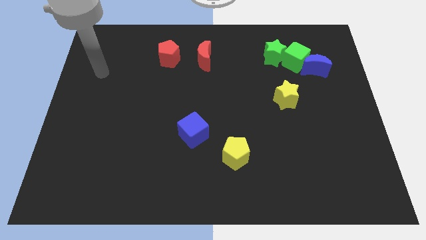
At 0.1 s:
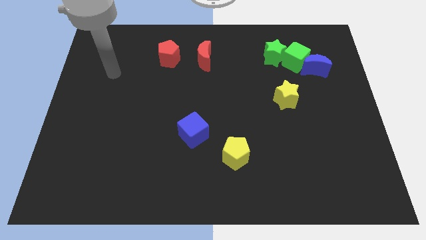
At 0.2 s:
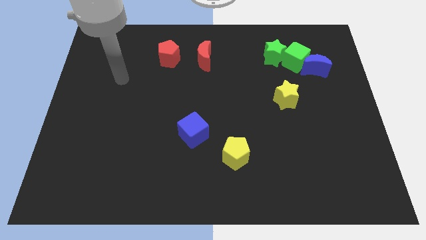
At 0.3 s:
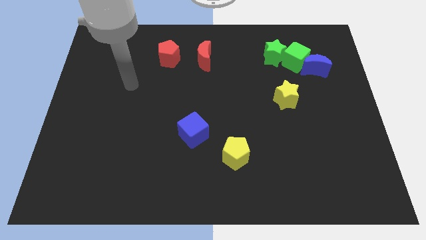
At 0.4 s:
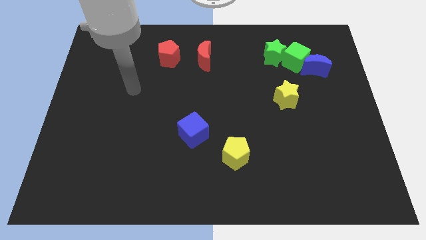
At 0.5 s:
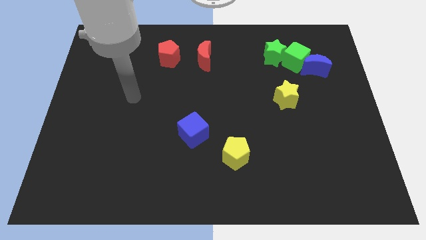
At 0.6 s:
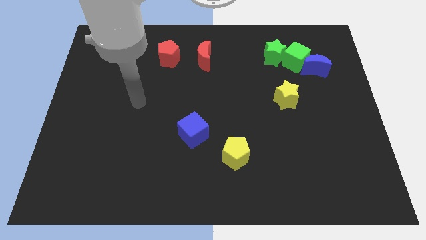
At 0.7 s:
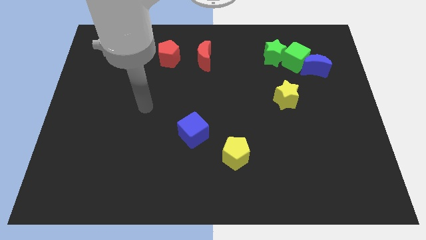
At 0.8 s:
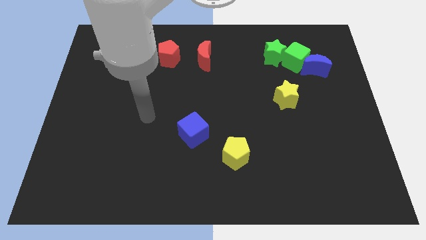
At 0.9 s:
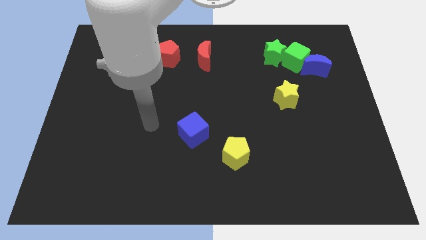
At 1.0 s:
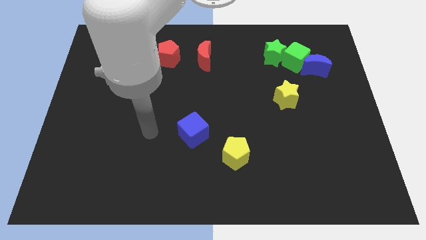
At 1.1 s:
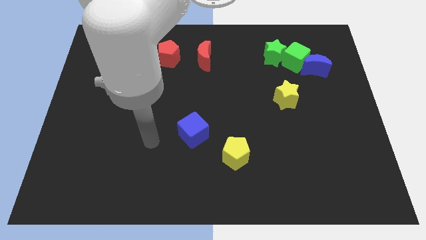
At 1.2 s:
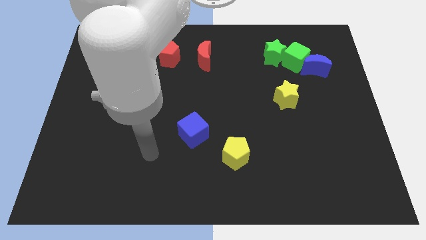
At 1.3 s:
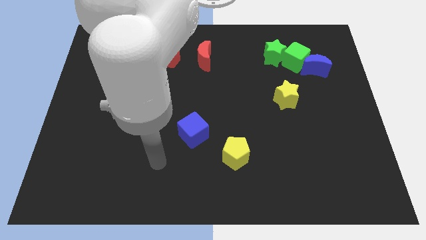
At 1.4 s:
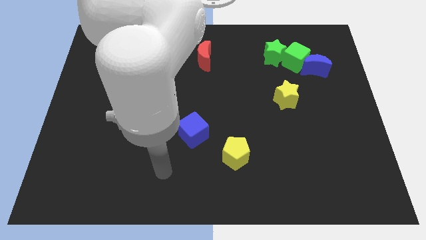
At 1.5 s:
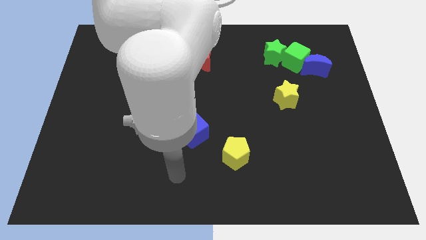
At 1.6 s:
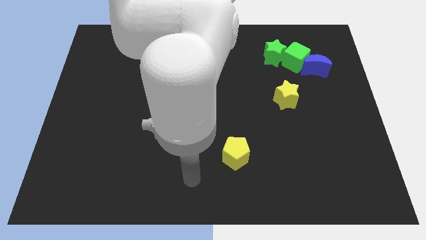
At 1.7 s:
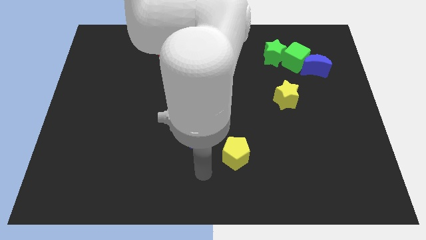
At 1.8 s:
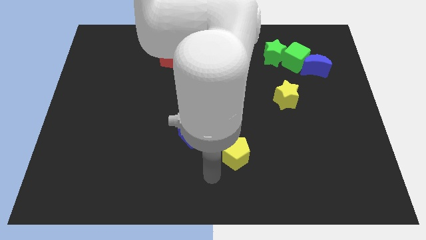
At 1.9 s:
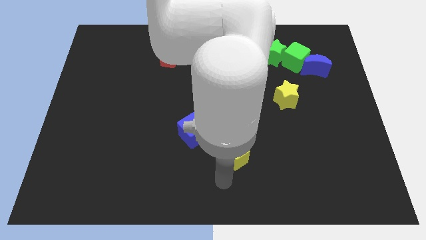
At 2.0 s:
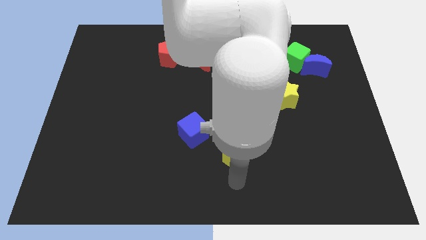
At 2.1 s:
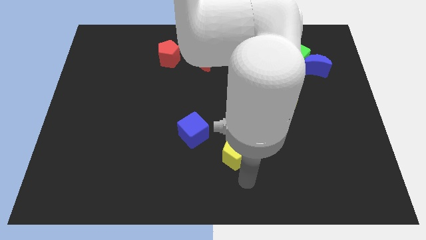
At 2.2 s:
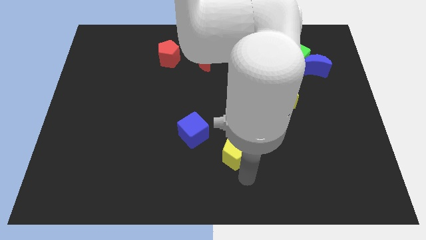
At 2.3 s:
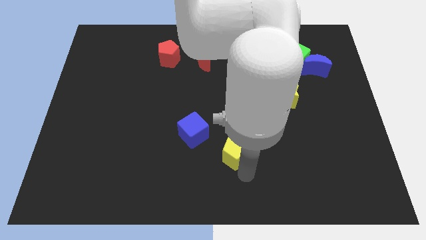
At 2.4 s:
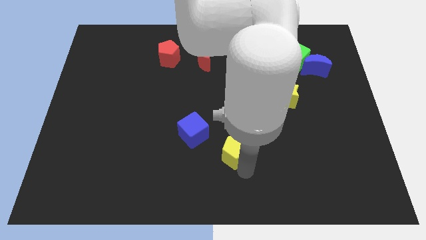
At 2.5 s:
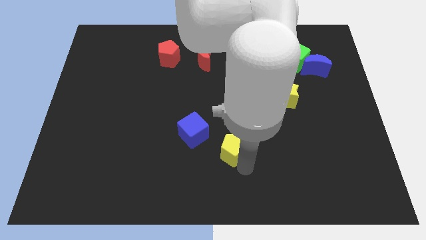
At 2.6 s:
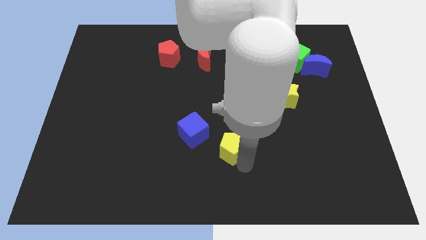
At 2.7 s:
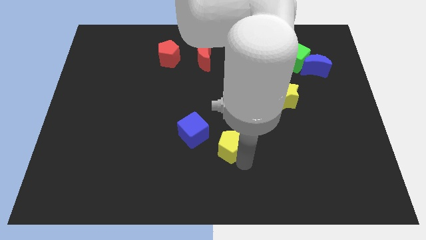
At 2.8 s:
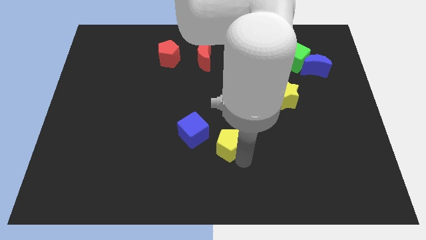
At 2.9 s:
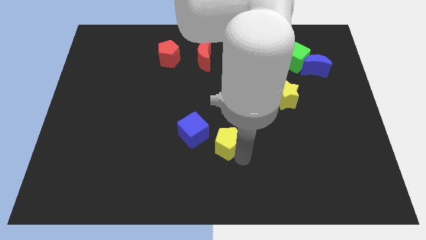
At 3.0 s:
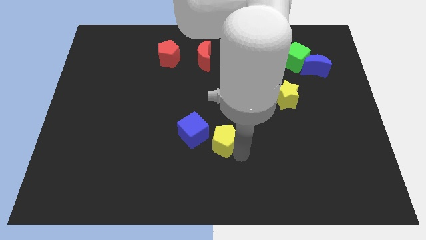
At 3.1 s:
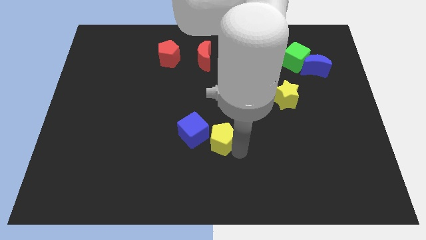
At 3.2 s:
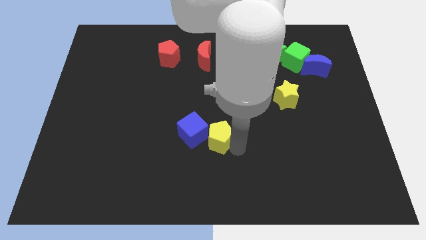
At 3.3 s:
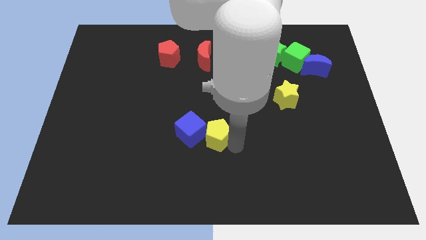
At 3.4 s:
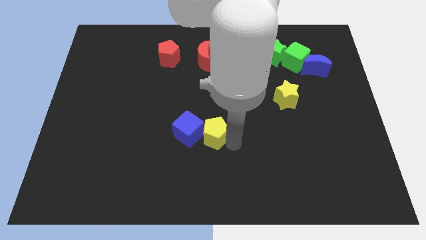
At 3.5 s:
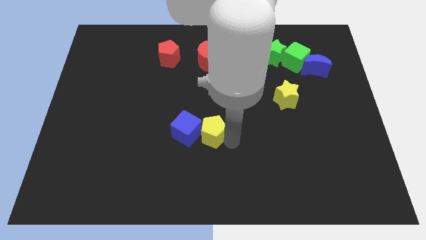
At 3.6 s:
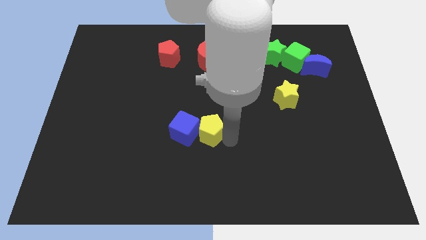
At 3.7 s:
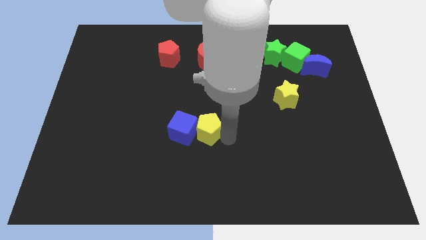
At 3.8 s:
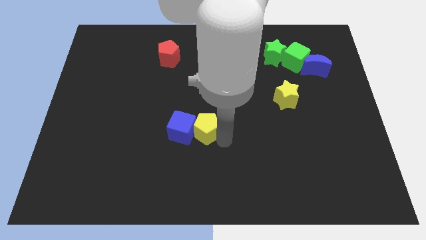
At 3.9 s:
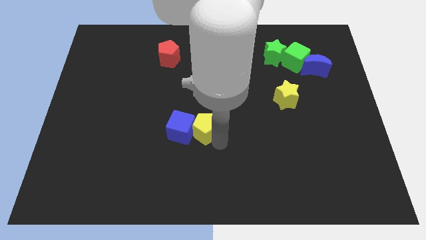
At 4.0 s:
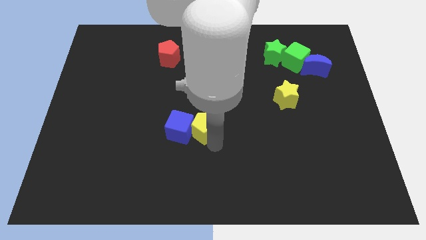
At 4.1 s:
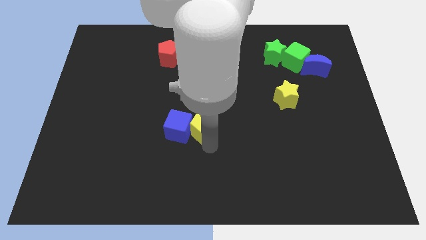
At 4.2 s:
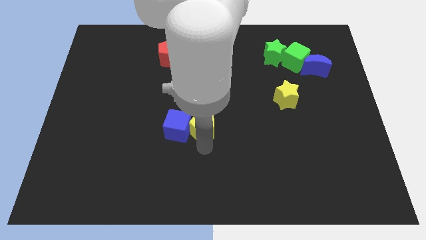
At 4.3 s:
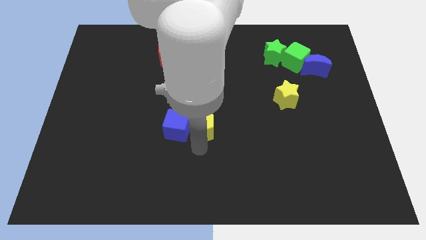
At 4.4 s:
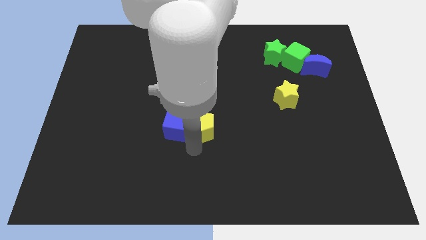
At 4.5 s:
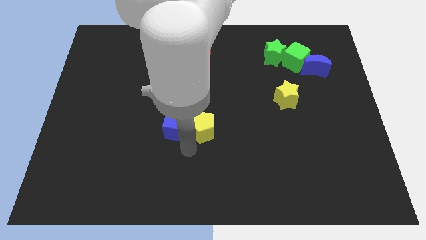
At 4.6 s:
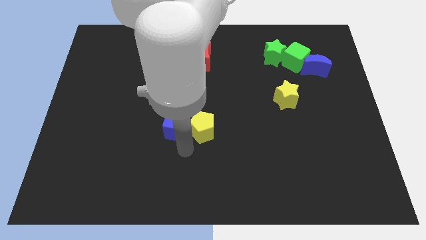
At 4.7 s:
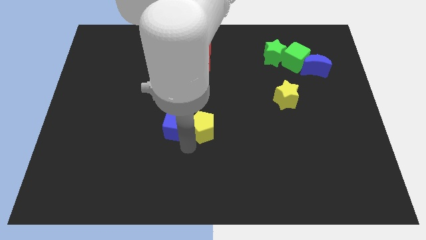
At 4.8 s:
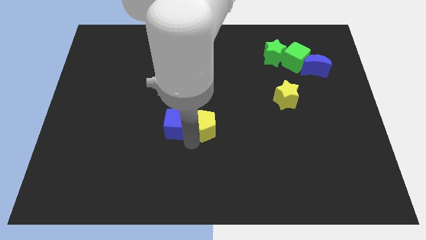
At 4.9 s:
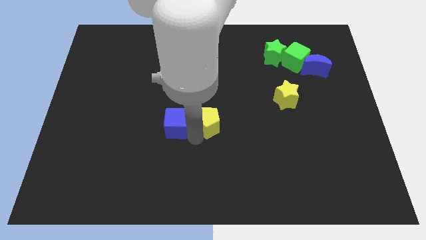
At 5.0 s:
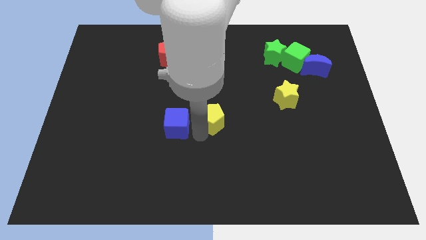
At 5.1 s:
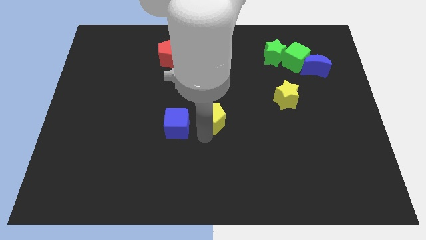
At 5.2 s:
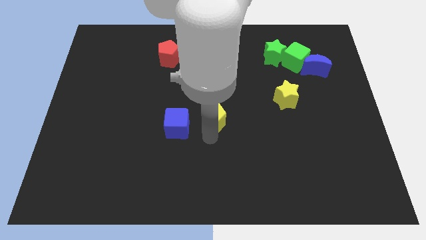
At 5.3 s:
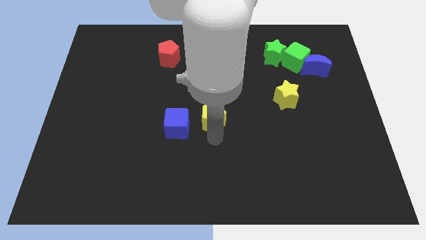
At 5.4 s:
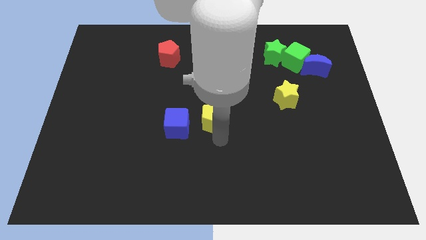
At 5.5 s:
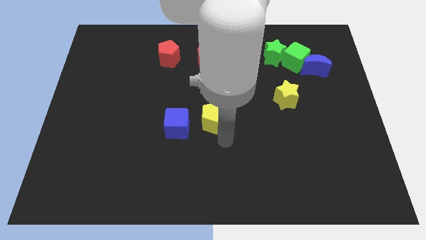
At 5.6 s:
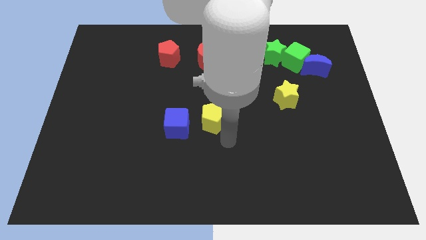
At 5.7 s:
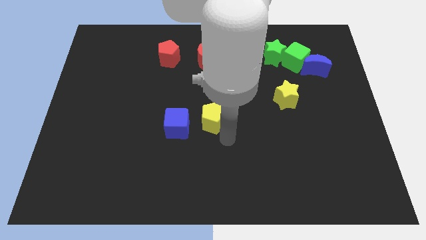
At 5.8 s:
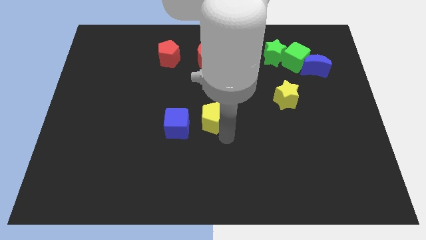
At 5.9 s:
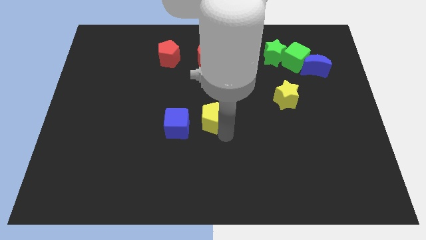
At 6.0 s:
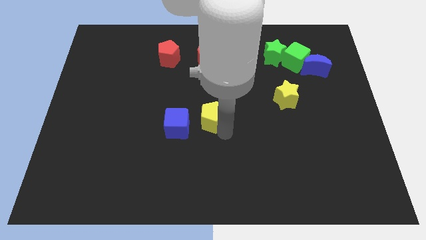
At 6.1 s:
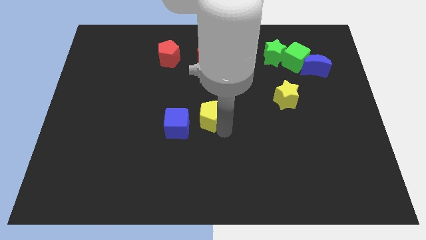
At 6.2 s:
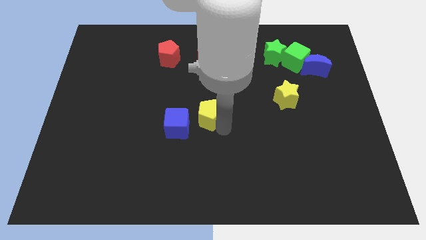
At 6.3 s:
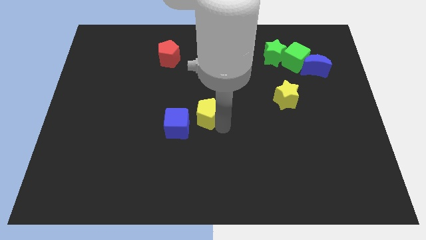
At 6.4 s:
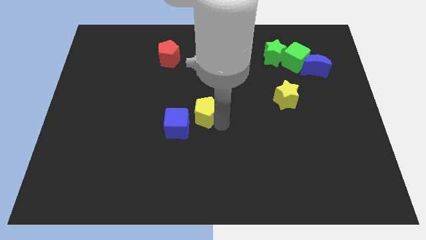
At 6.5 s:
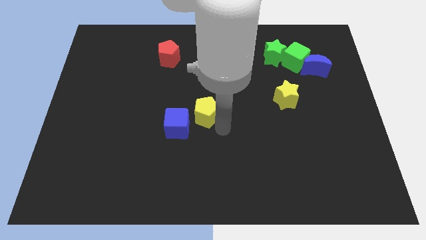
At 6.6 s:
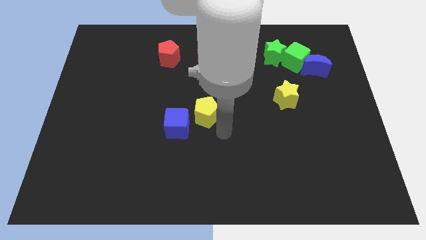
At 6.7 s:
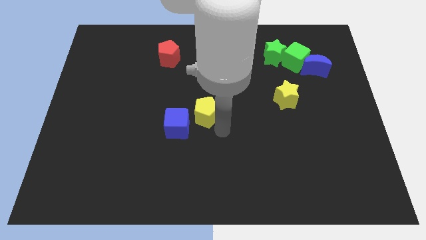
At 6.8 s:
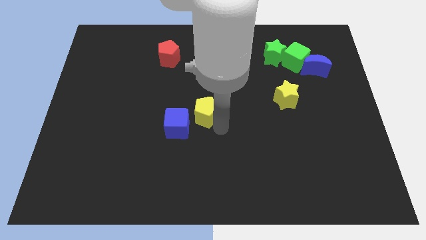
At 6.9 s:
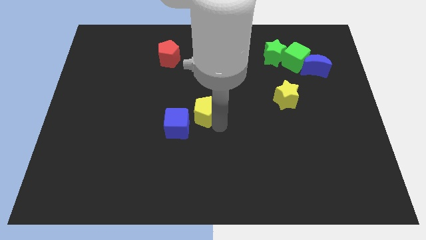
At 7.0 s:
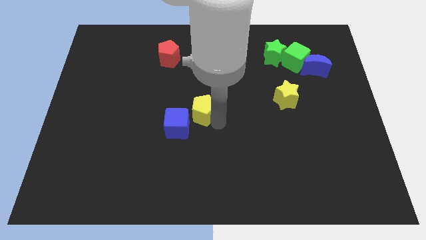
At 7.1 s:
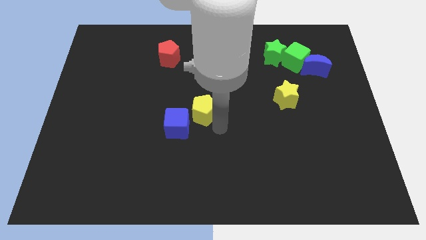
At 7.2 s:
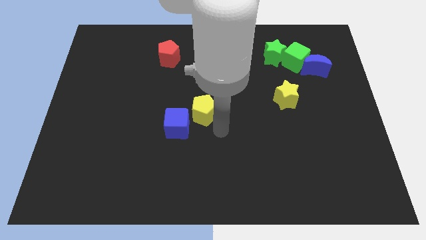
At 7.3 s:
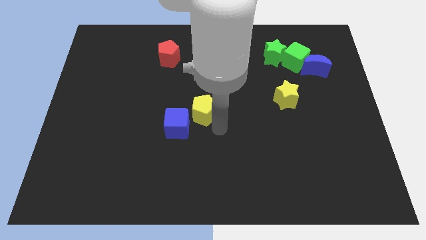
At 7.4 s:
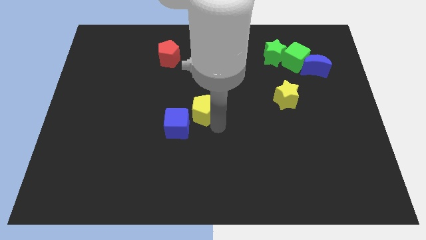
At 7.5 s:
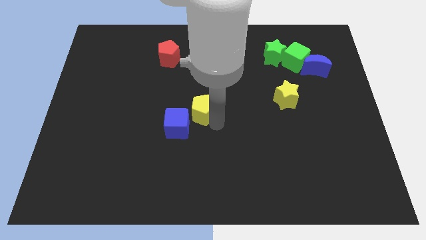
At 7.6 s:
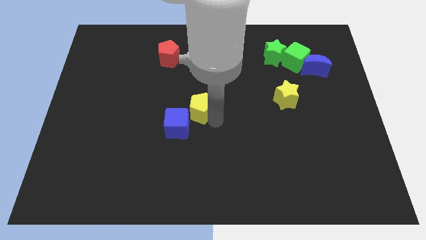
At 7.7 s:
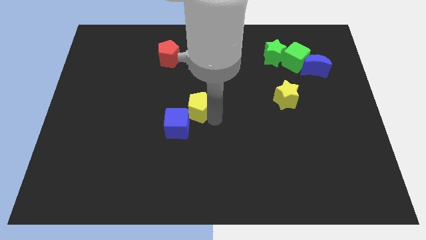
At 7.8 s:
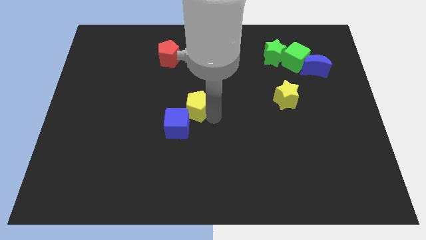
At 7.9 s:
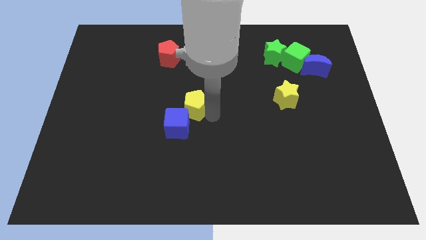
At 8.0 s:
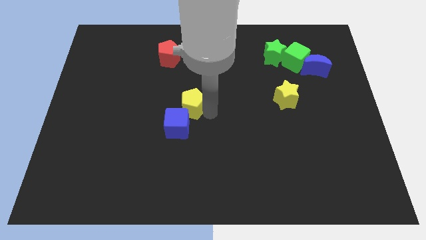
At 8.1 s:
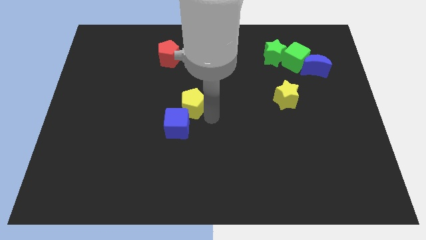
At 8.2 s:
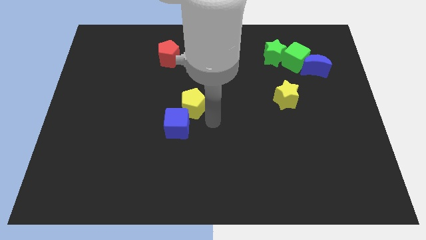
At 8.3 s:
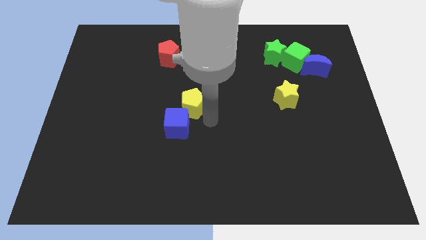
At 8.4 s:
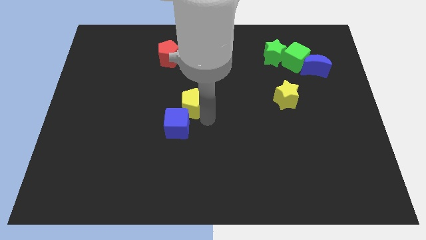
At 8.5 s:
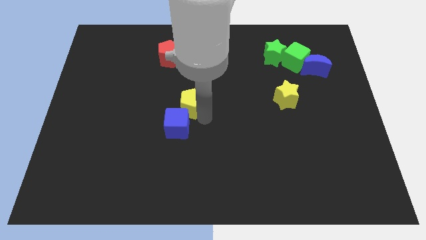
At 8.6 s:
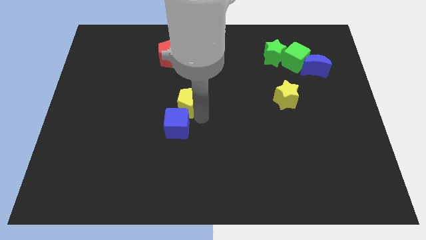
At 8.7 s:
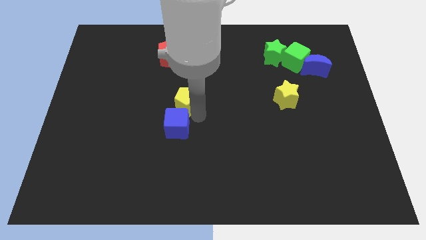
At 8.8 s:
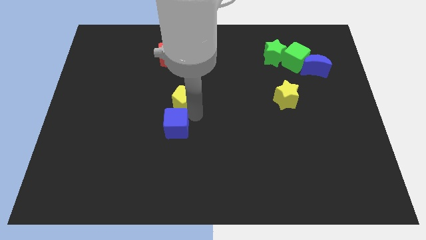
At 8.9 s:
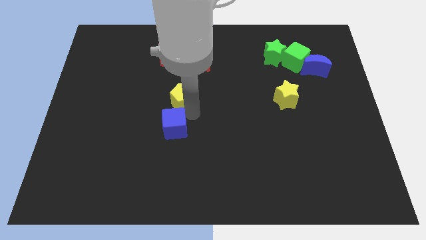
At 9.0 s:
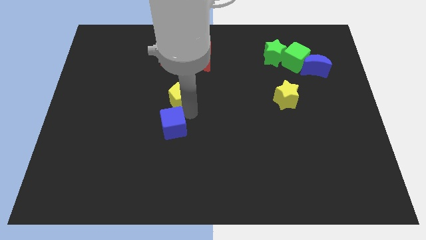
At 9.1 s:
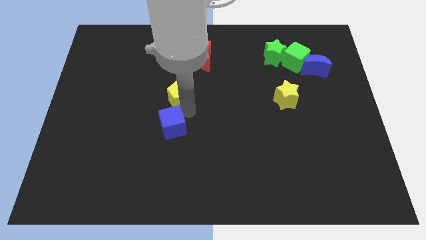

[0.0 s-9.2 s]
push the yellow pentagon upwards and left diagonally
